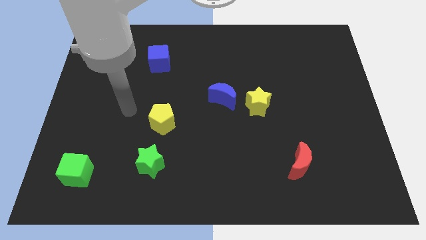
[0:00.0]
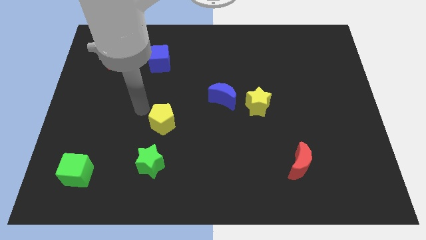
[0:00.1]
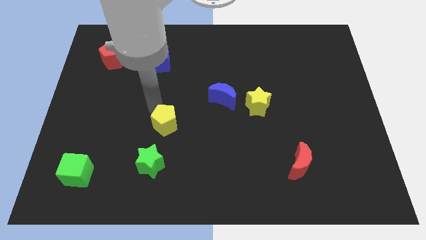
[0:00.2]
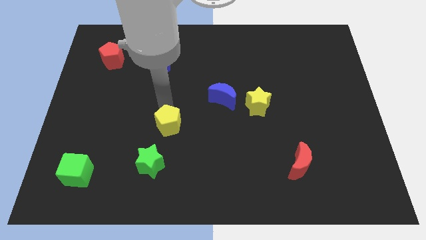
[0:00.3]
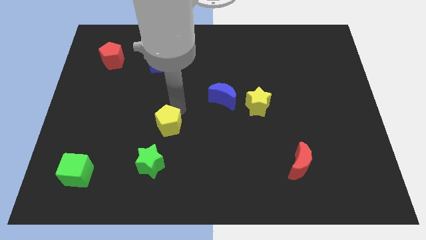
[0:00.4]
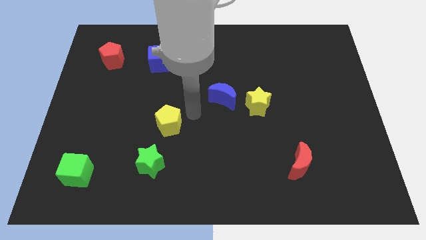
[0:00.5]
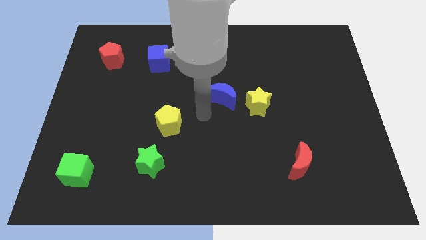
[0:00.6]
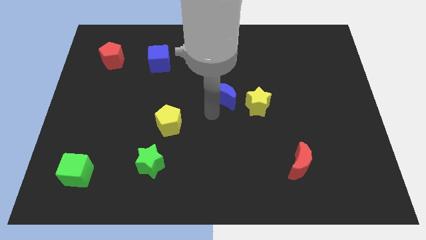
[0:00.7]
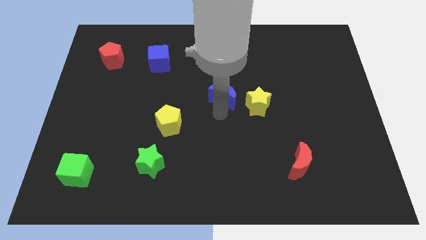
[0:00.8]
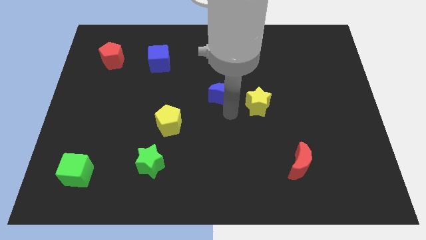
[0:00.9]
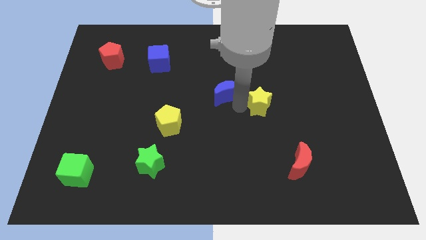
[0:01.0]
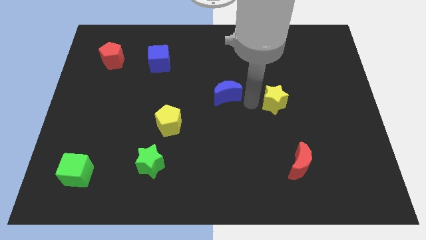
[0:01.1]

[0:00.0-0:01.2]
separate the blue moon from the yellow star

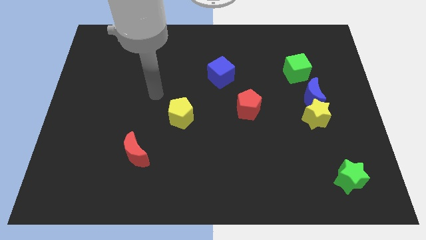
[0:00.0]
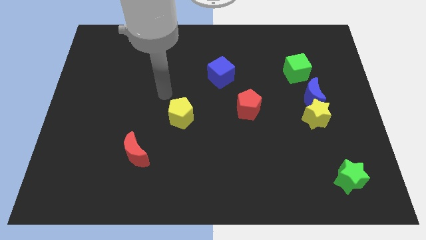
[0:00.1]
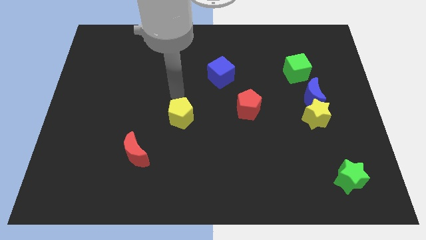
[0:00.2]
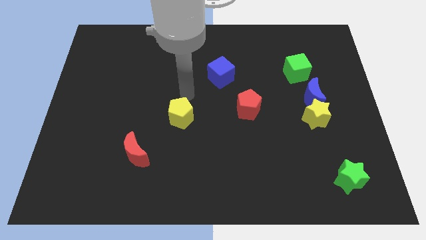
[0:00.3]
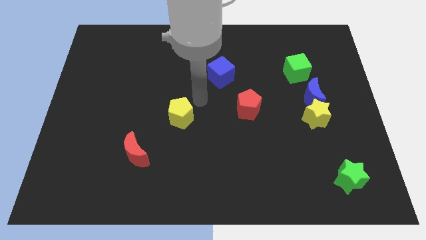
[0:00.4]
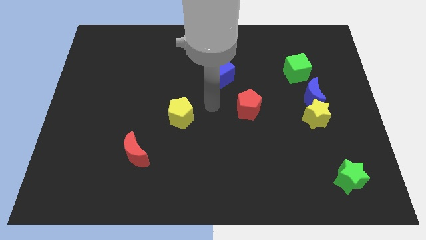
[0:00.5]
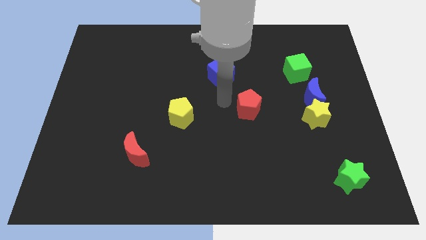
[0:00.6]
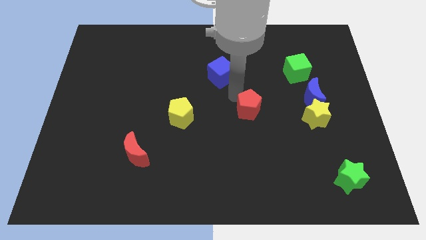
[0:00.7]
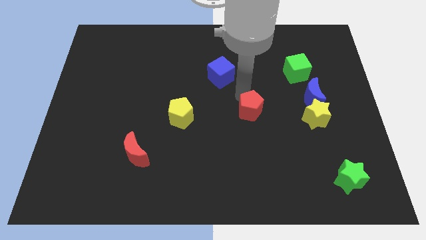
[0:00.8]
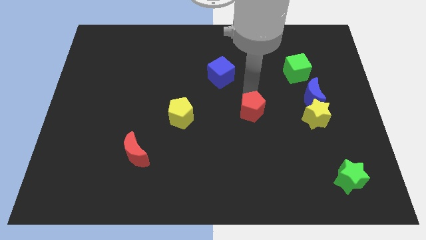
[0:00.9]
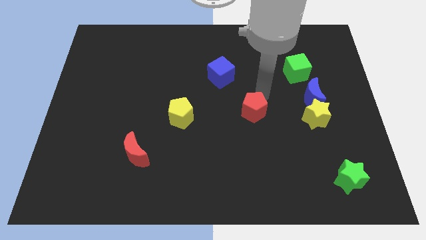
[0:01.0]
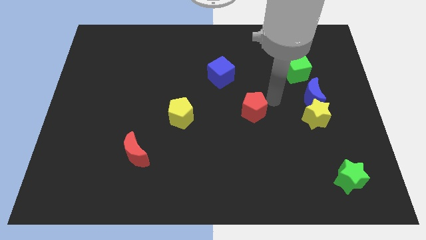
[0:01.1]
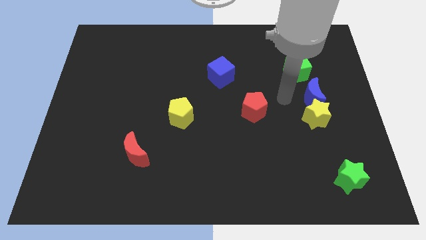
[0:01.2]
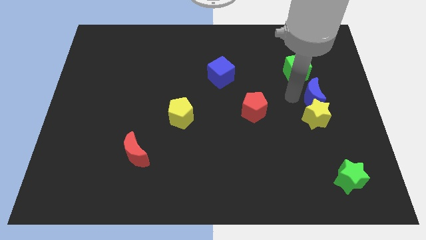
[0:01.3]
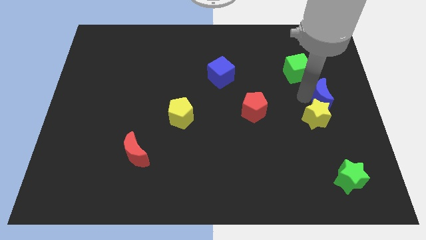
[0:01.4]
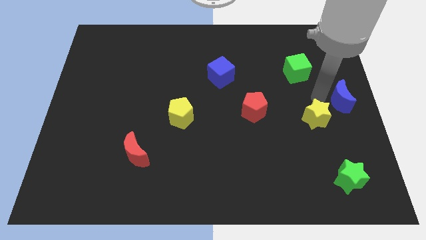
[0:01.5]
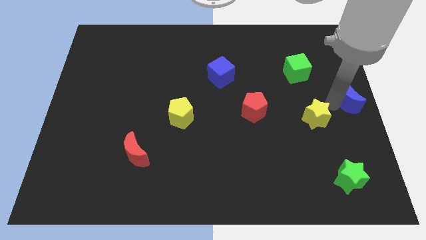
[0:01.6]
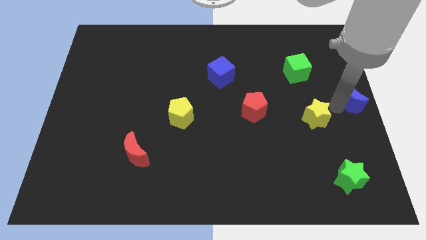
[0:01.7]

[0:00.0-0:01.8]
separate the yellow star from the blue moon

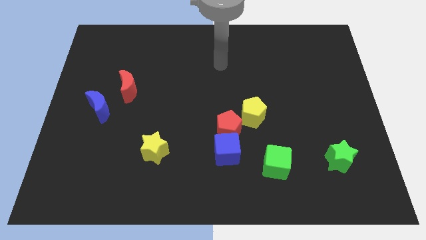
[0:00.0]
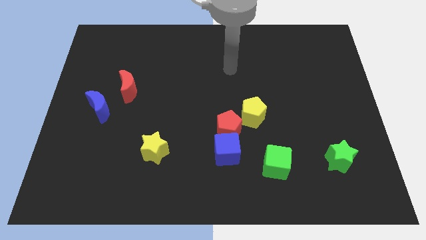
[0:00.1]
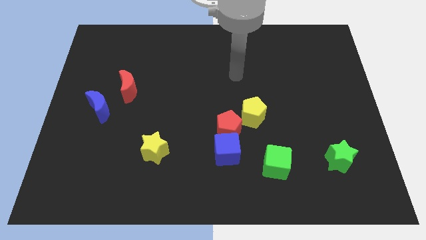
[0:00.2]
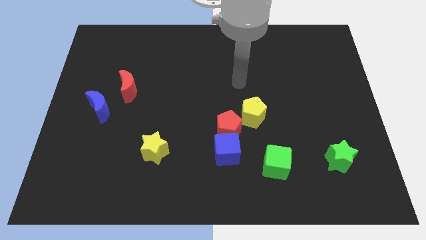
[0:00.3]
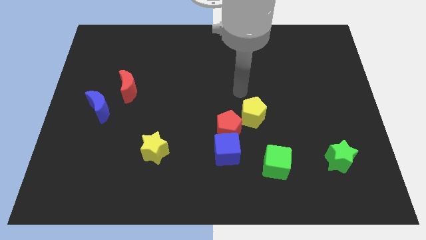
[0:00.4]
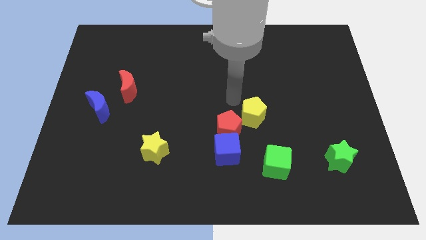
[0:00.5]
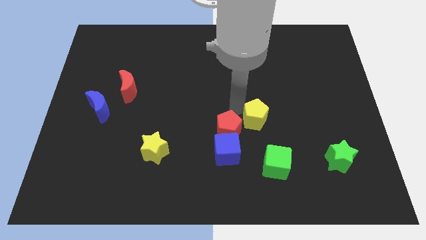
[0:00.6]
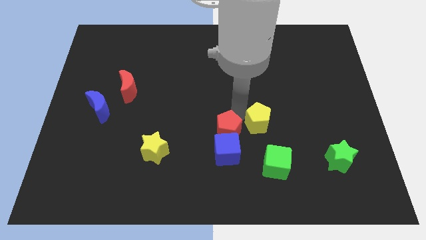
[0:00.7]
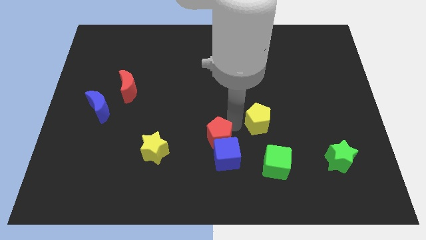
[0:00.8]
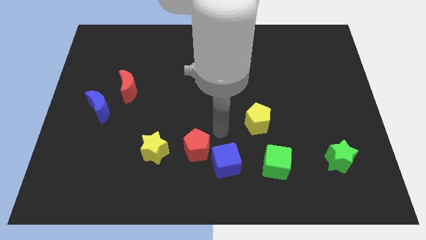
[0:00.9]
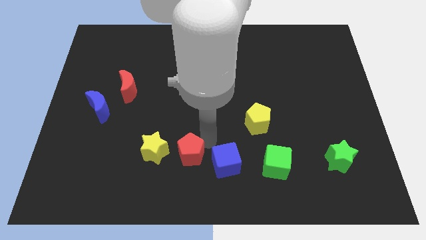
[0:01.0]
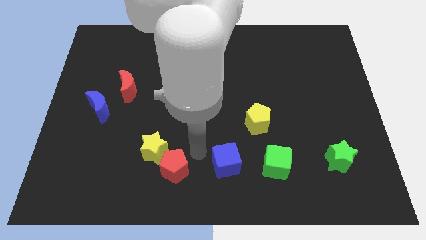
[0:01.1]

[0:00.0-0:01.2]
separate the blue cube from the red pentagon

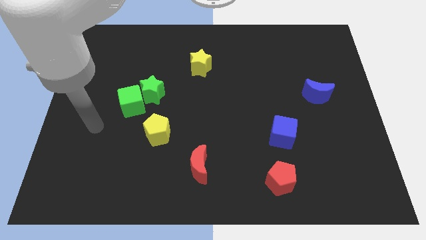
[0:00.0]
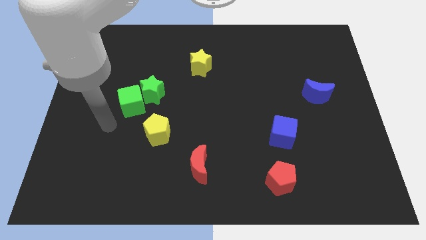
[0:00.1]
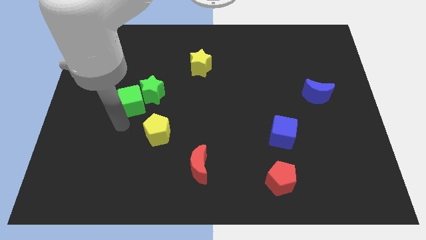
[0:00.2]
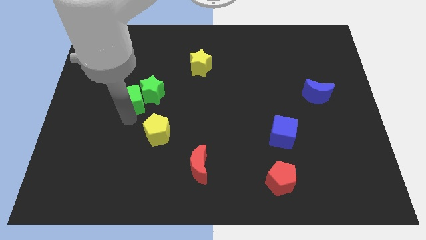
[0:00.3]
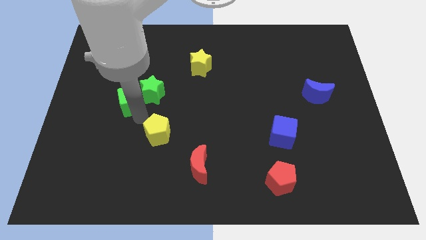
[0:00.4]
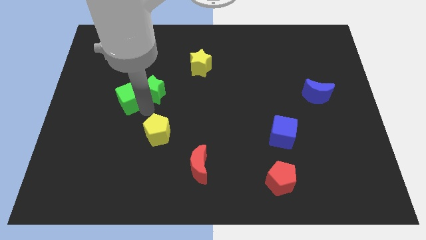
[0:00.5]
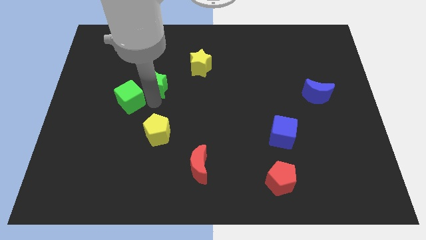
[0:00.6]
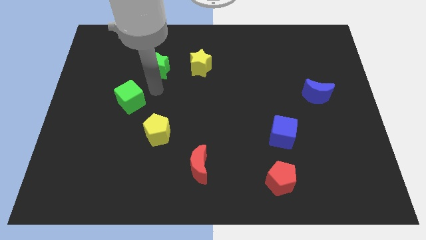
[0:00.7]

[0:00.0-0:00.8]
separate the green cube from the green star

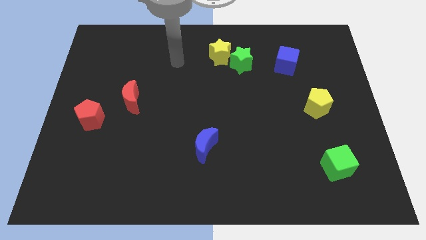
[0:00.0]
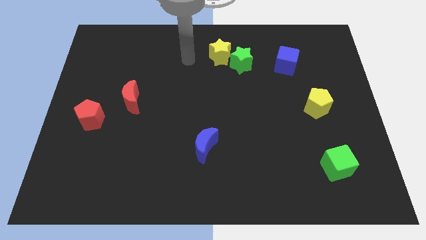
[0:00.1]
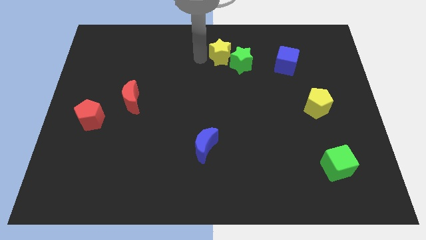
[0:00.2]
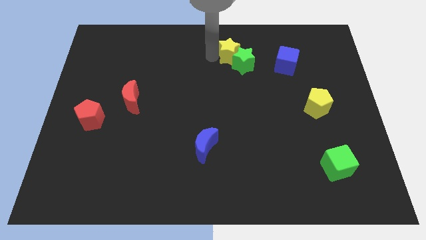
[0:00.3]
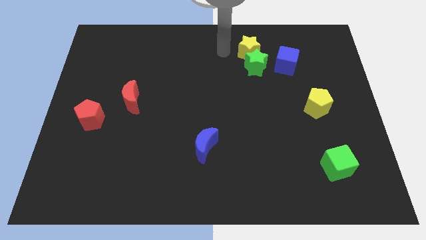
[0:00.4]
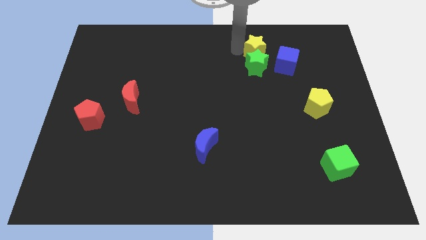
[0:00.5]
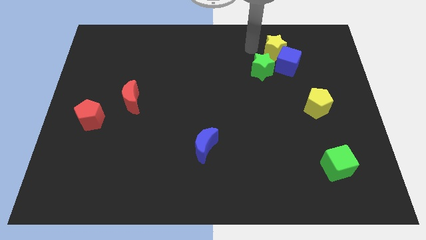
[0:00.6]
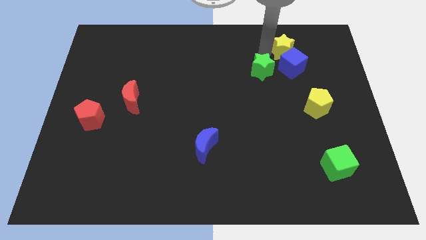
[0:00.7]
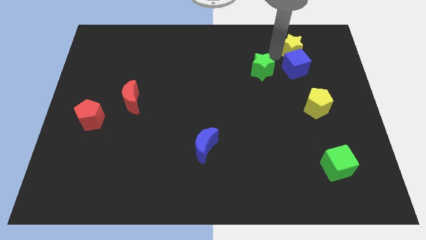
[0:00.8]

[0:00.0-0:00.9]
pull the green star apart from the yellow star

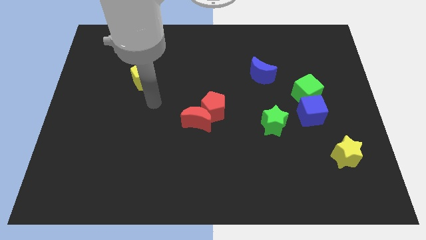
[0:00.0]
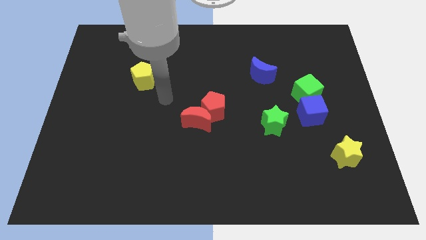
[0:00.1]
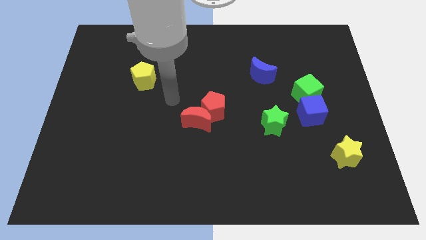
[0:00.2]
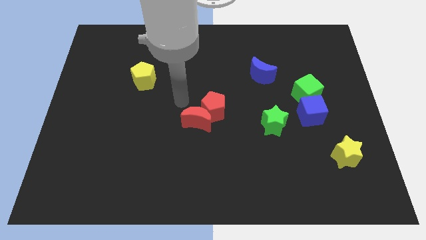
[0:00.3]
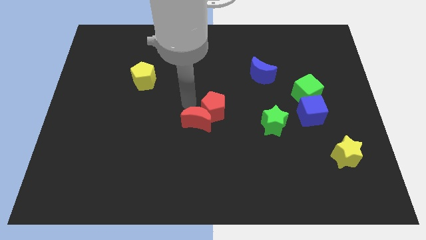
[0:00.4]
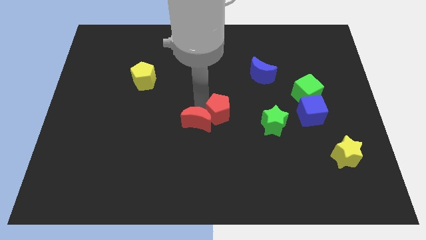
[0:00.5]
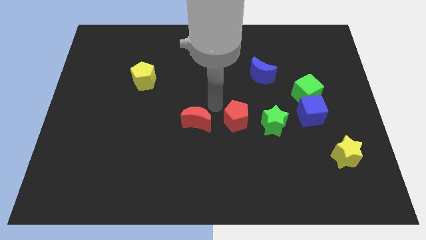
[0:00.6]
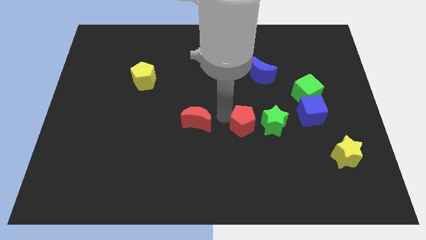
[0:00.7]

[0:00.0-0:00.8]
move the red moon away from the red pentagon

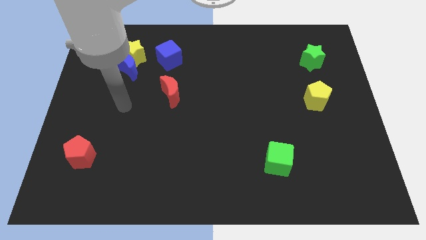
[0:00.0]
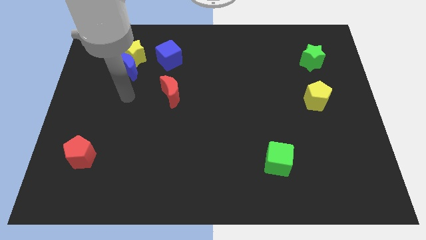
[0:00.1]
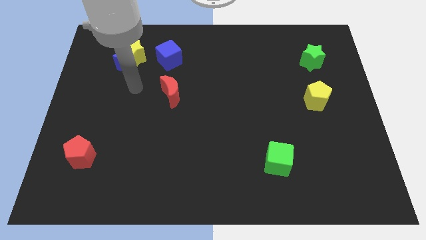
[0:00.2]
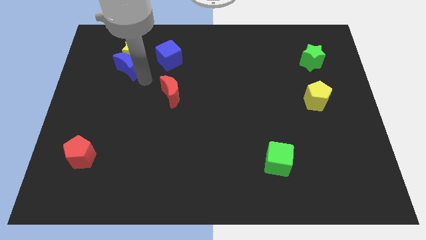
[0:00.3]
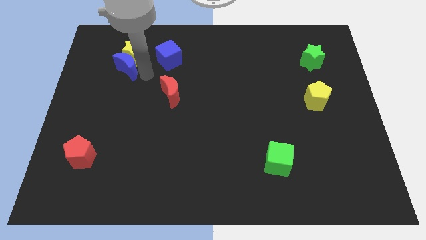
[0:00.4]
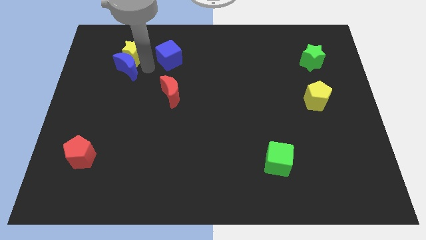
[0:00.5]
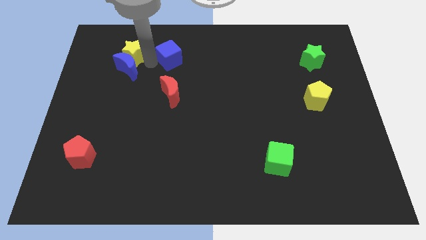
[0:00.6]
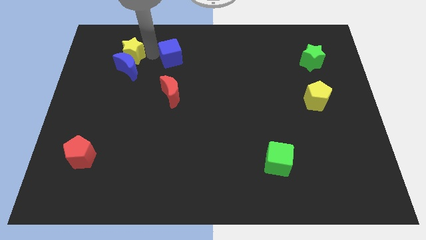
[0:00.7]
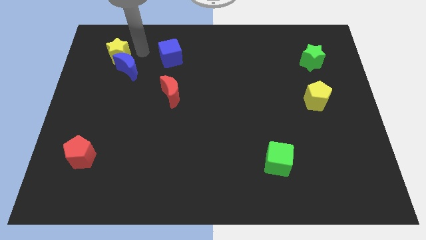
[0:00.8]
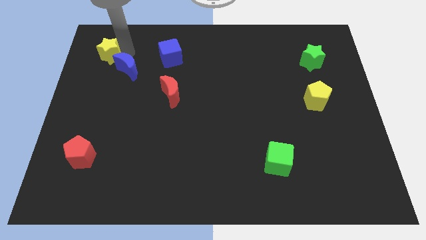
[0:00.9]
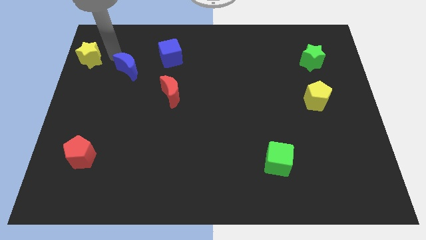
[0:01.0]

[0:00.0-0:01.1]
pull the blue moon apart from the yellow star

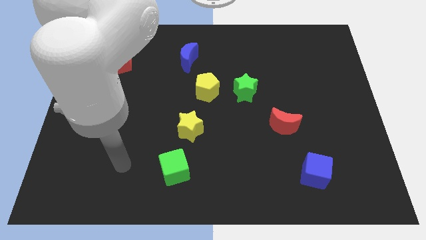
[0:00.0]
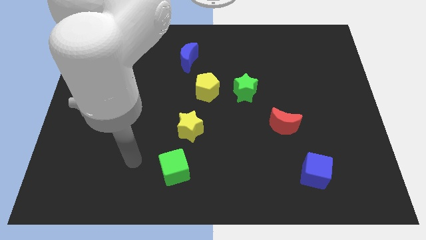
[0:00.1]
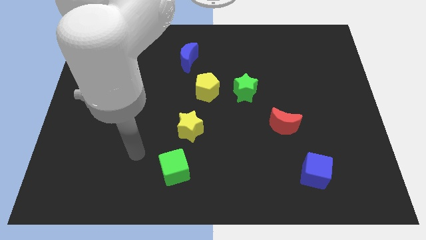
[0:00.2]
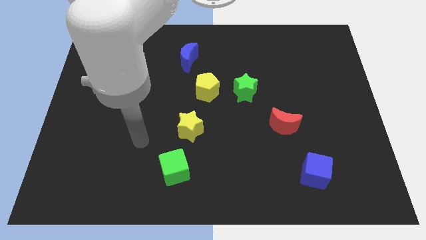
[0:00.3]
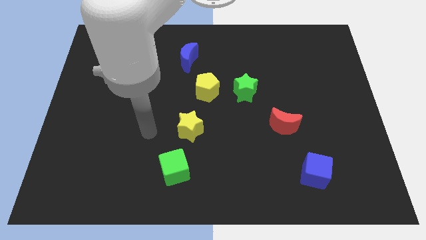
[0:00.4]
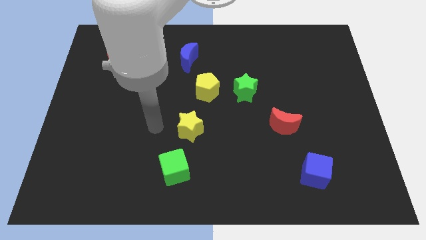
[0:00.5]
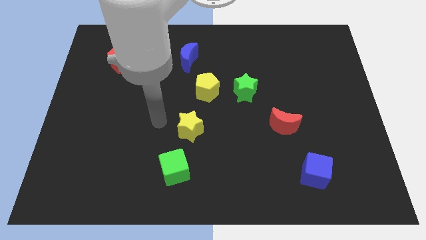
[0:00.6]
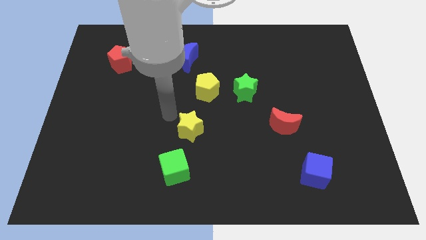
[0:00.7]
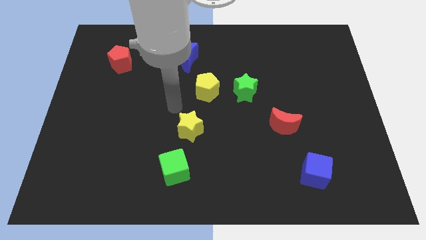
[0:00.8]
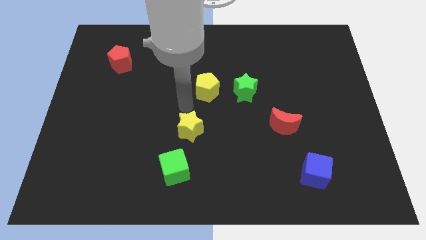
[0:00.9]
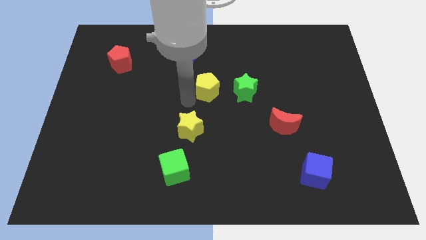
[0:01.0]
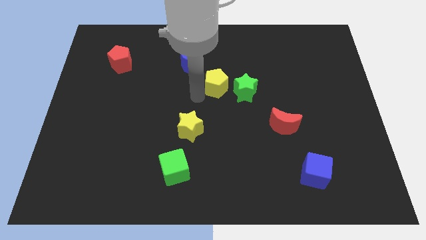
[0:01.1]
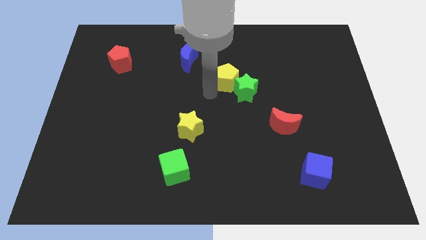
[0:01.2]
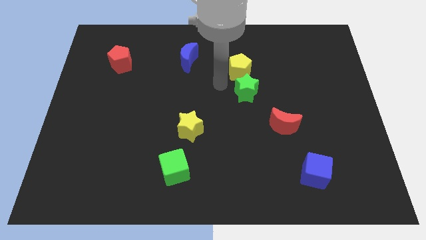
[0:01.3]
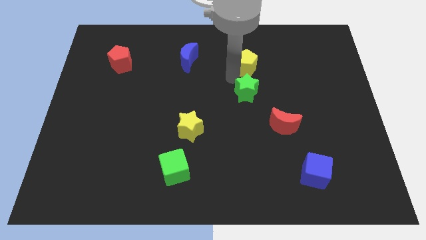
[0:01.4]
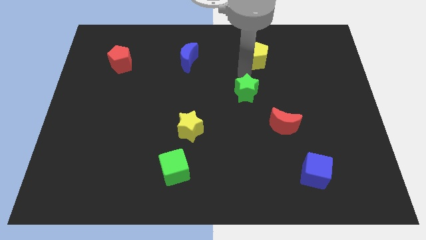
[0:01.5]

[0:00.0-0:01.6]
pull the green star apart from the yellow pentagon
